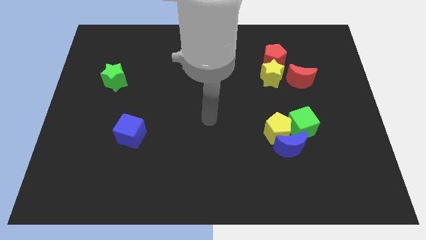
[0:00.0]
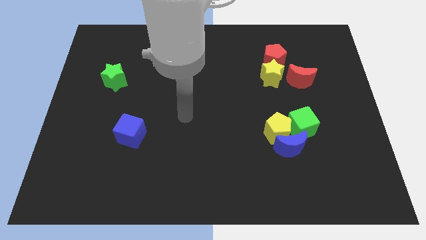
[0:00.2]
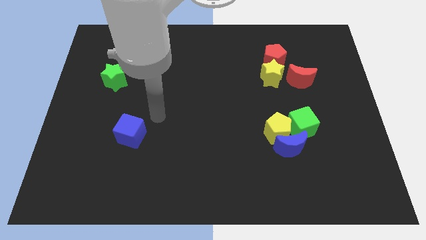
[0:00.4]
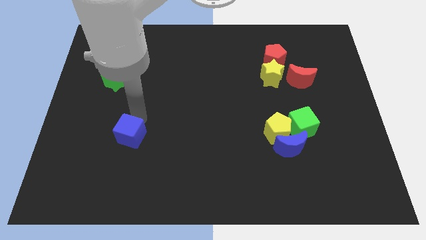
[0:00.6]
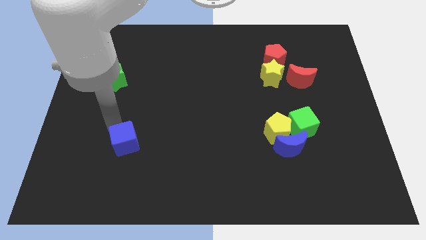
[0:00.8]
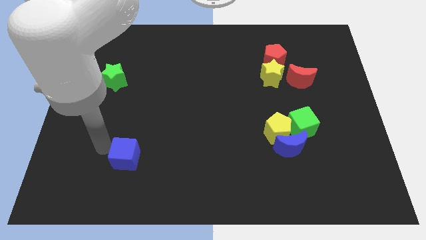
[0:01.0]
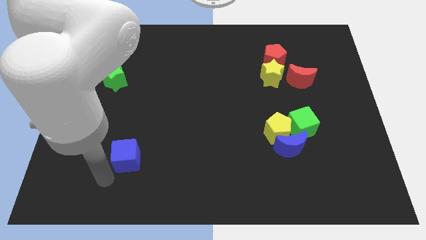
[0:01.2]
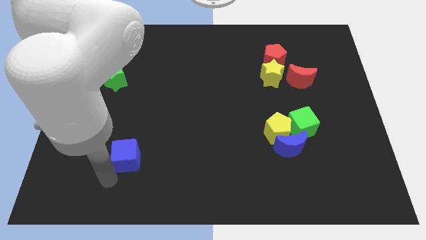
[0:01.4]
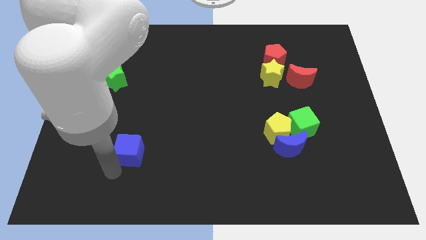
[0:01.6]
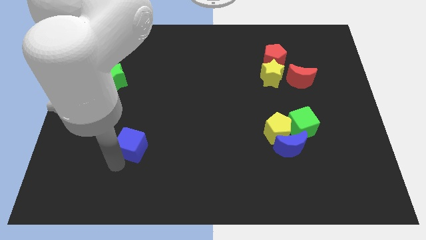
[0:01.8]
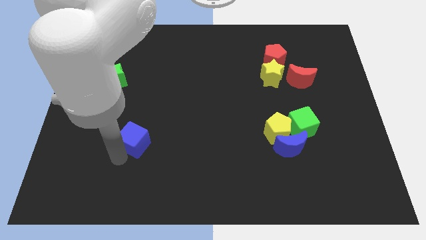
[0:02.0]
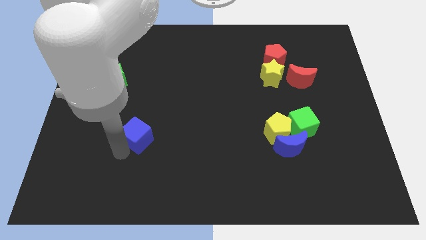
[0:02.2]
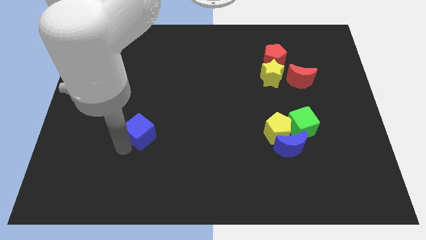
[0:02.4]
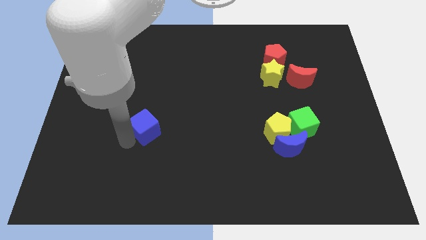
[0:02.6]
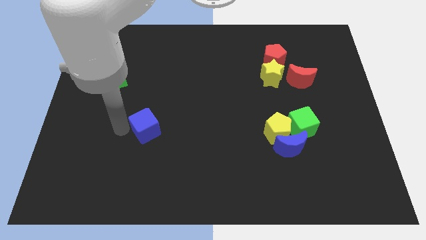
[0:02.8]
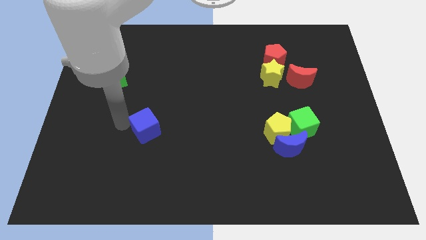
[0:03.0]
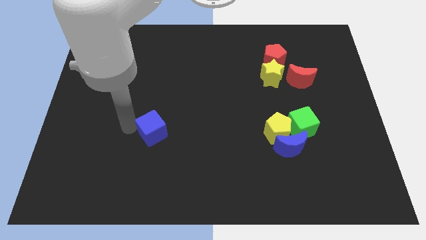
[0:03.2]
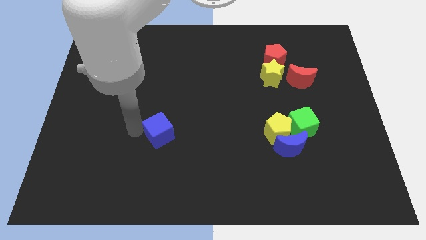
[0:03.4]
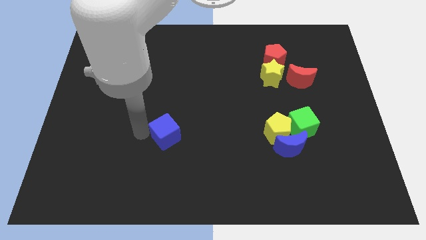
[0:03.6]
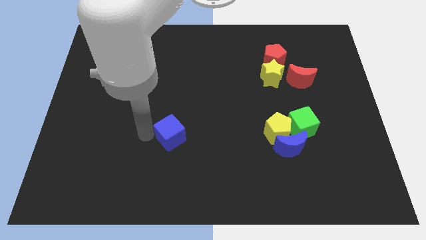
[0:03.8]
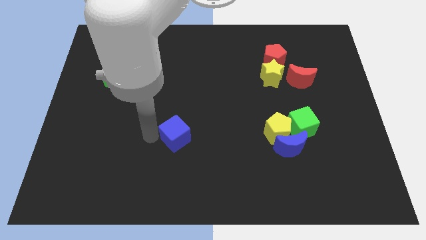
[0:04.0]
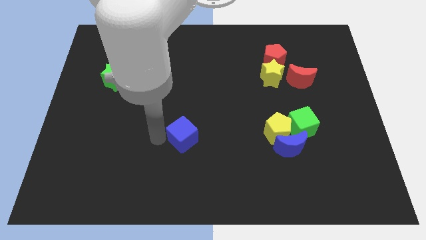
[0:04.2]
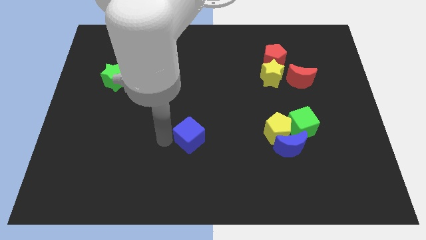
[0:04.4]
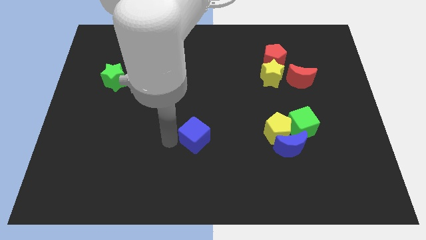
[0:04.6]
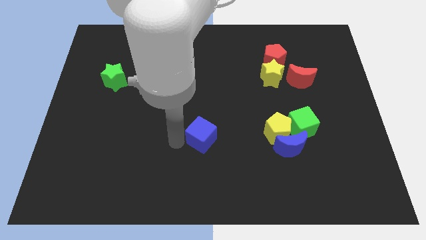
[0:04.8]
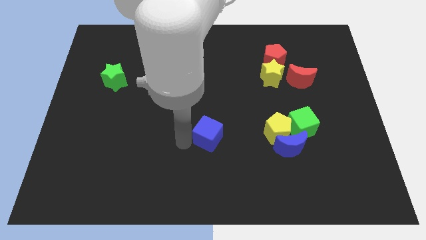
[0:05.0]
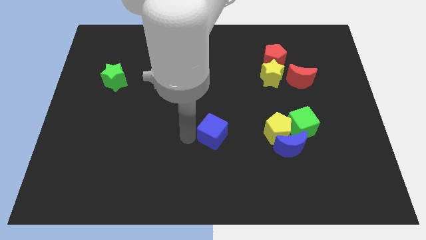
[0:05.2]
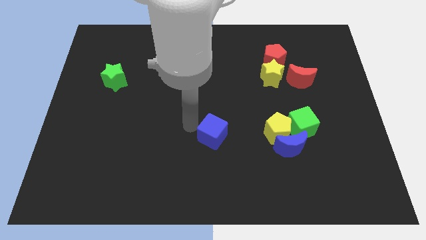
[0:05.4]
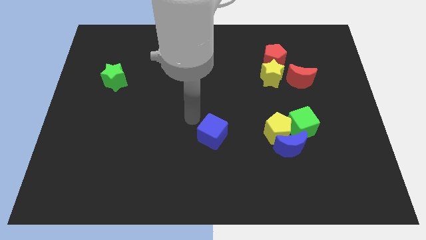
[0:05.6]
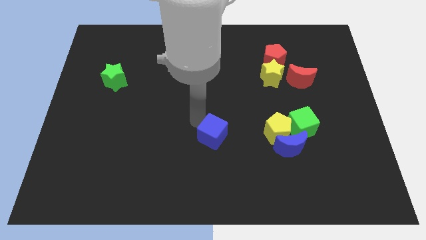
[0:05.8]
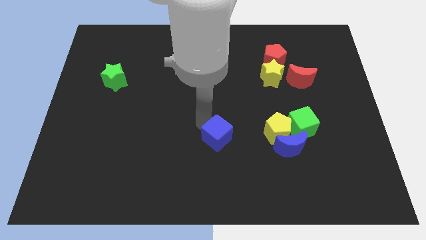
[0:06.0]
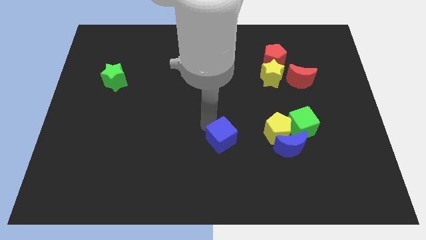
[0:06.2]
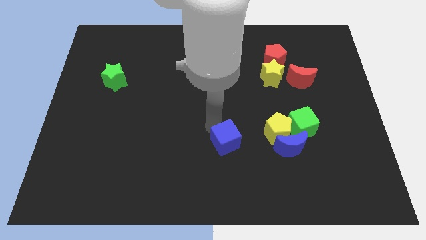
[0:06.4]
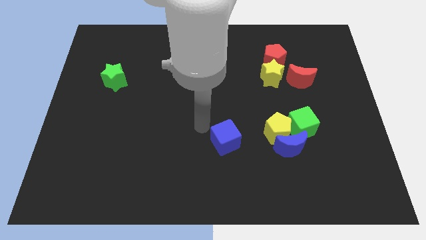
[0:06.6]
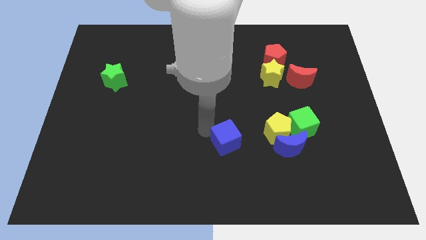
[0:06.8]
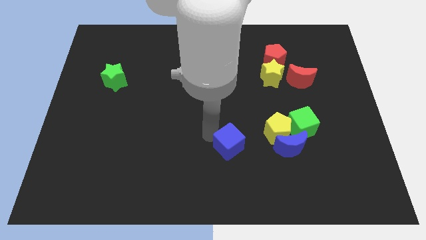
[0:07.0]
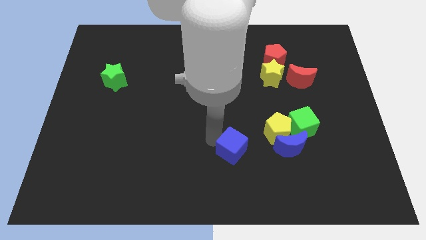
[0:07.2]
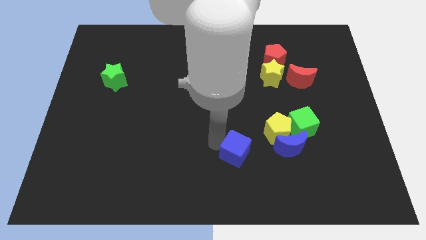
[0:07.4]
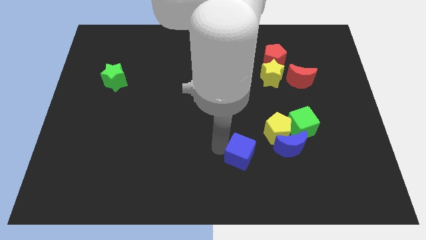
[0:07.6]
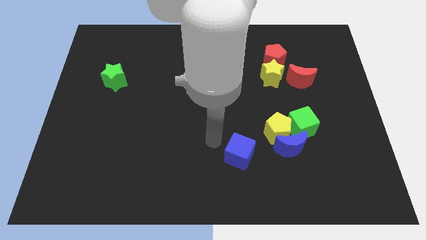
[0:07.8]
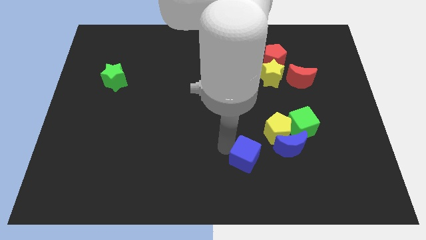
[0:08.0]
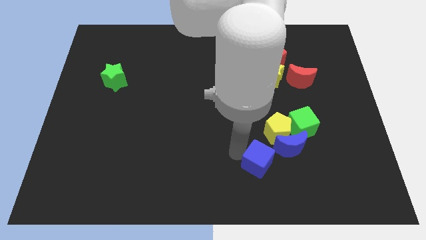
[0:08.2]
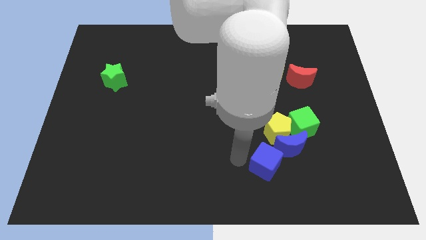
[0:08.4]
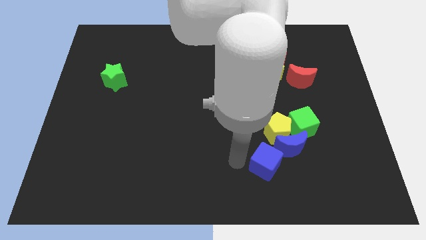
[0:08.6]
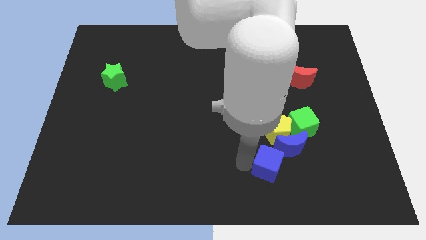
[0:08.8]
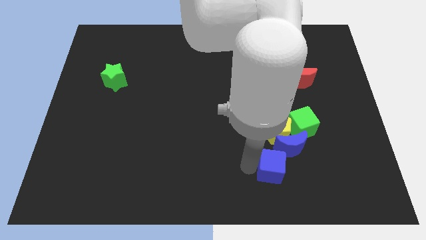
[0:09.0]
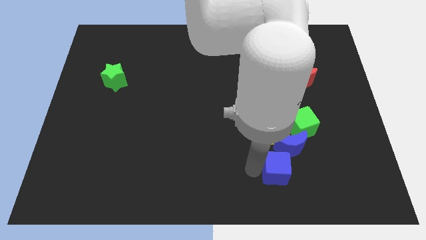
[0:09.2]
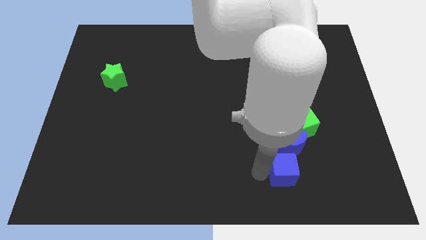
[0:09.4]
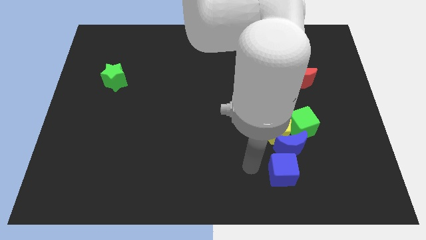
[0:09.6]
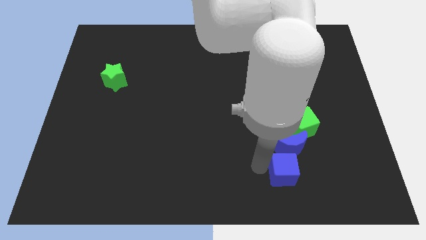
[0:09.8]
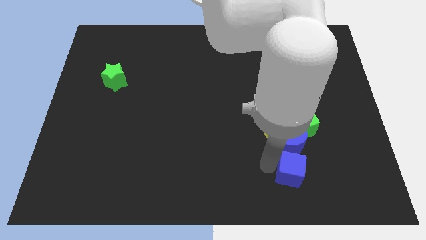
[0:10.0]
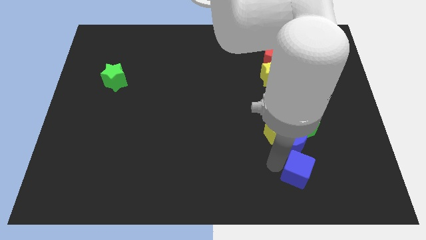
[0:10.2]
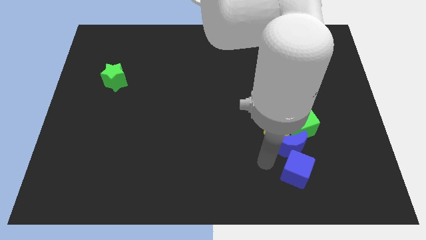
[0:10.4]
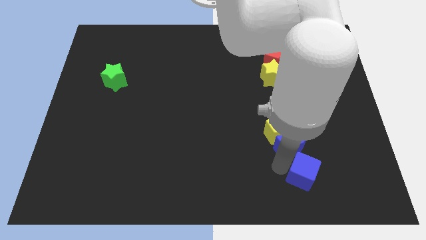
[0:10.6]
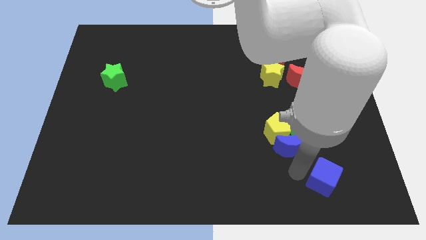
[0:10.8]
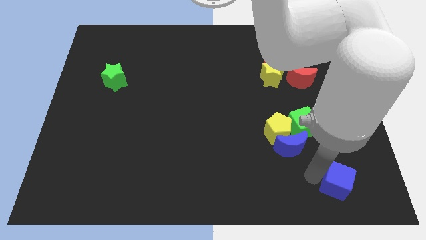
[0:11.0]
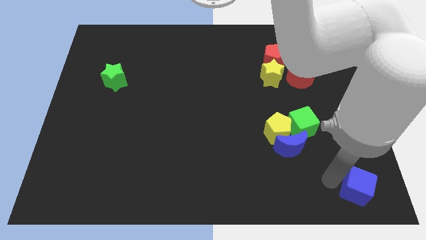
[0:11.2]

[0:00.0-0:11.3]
slide the blue cube to the bottom right

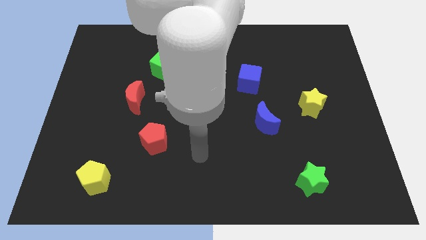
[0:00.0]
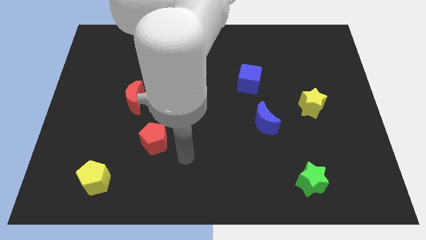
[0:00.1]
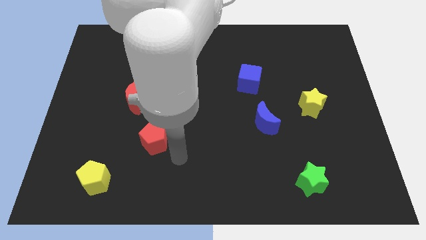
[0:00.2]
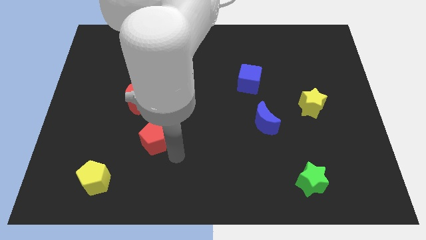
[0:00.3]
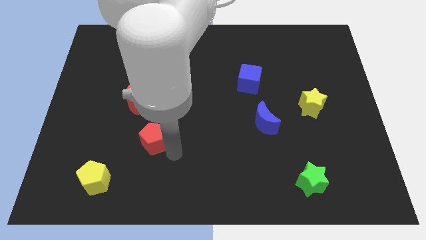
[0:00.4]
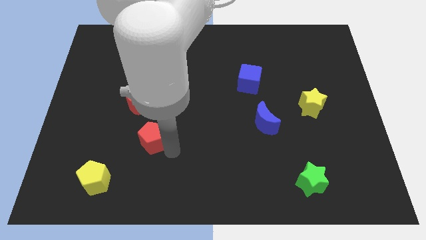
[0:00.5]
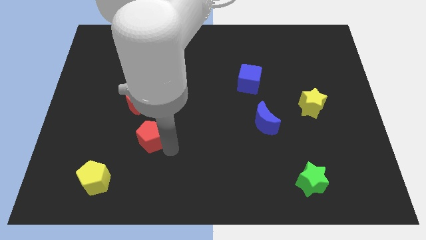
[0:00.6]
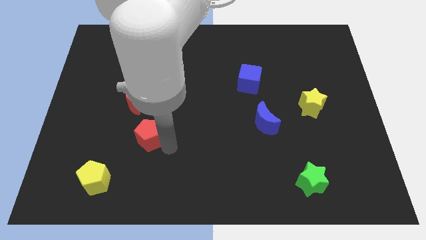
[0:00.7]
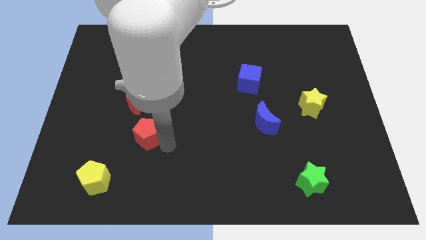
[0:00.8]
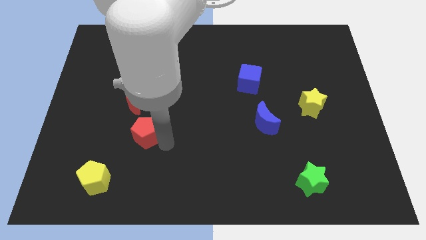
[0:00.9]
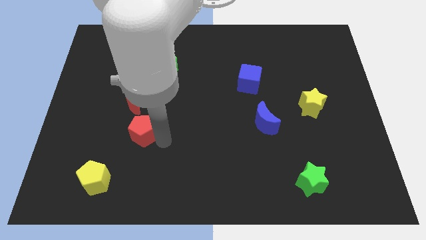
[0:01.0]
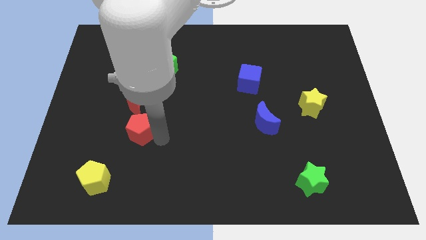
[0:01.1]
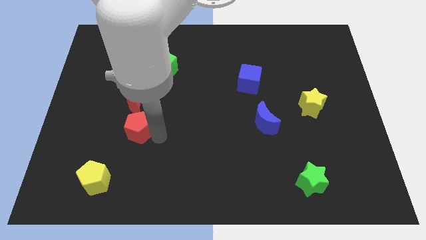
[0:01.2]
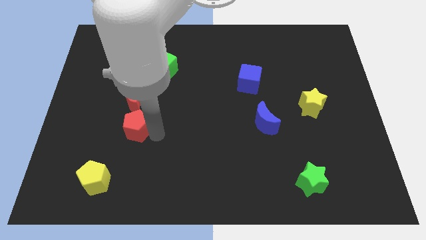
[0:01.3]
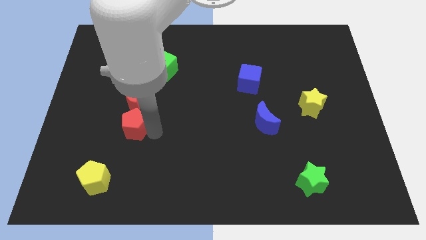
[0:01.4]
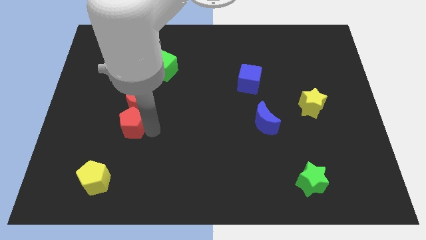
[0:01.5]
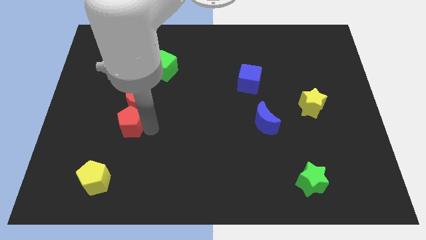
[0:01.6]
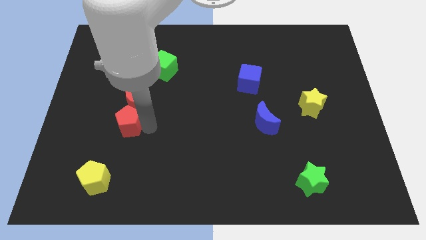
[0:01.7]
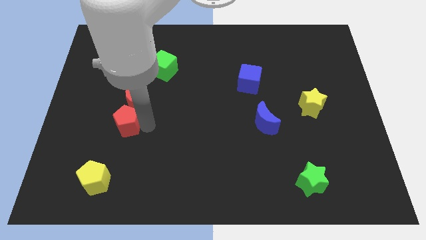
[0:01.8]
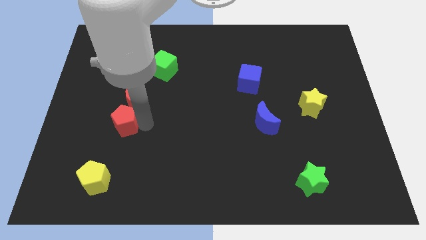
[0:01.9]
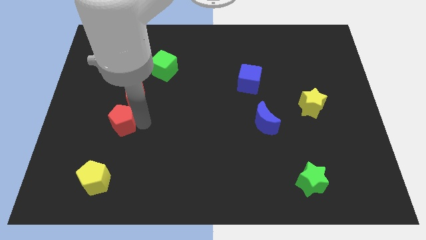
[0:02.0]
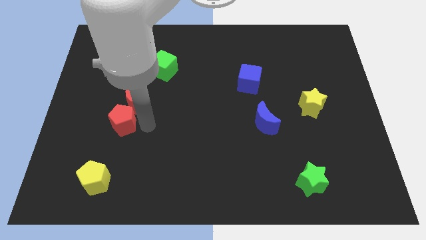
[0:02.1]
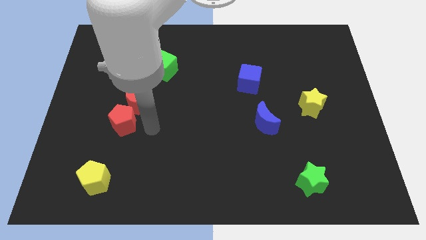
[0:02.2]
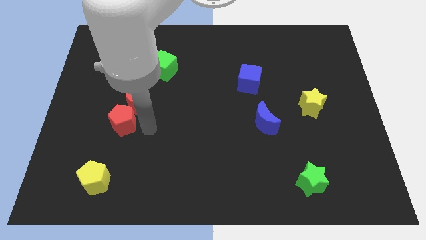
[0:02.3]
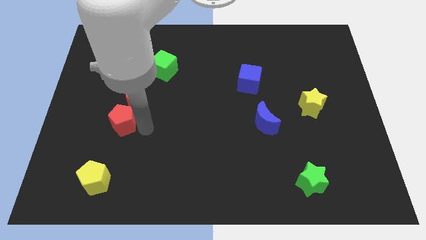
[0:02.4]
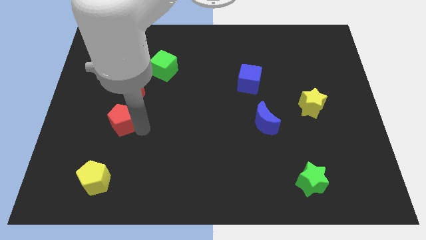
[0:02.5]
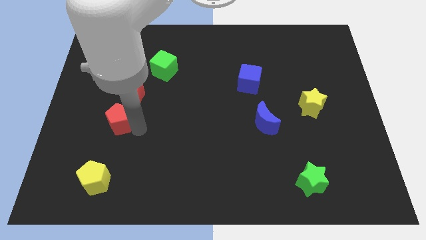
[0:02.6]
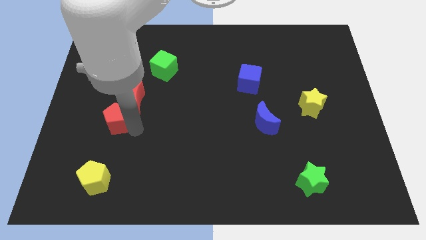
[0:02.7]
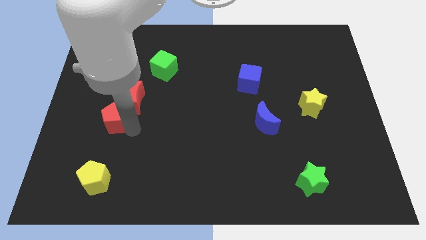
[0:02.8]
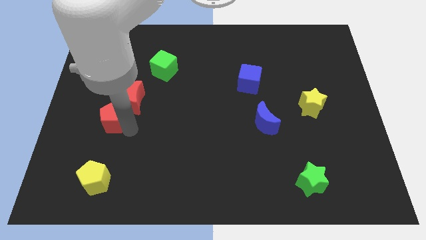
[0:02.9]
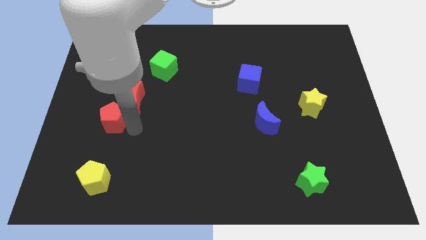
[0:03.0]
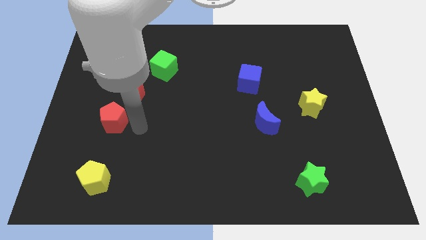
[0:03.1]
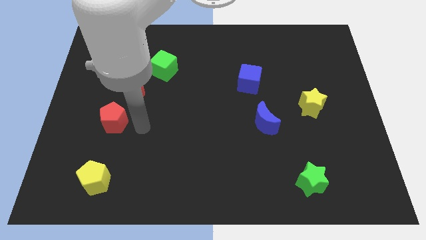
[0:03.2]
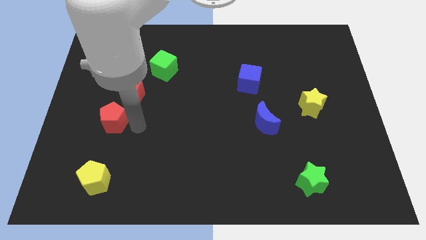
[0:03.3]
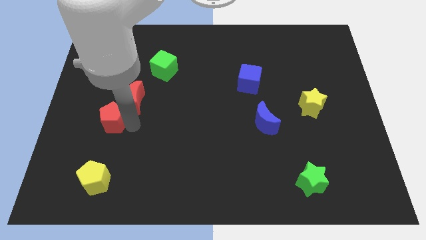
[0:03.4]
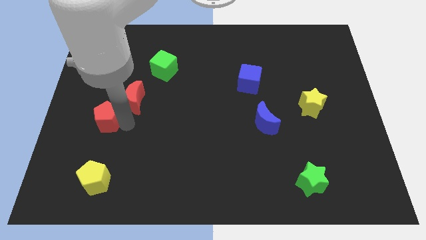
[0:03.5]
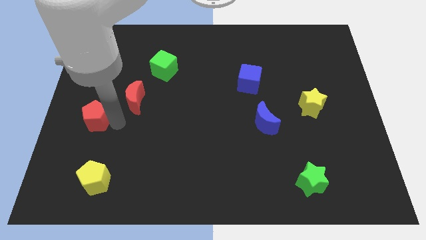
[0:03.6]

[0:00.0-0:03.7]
push the red pentagon to the left side
